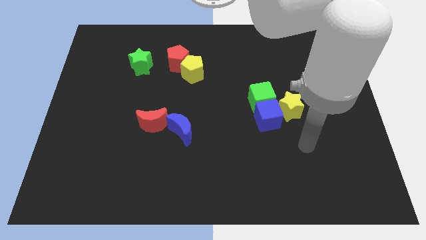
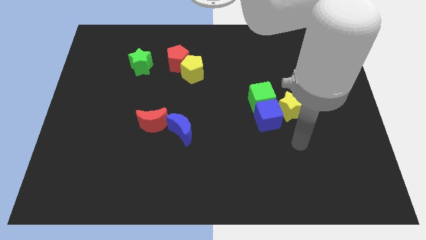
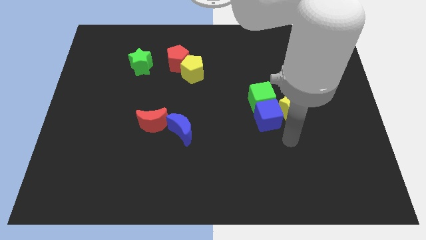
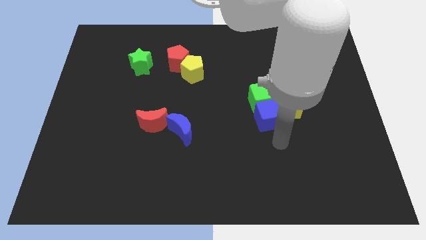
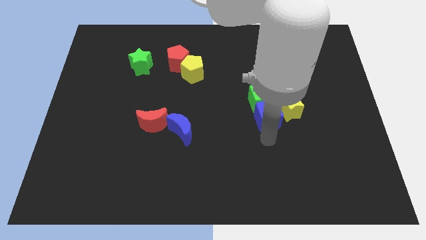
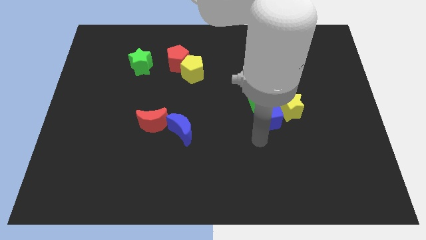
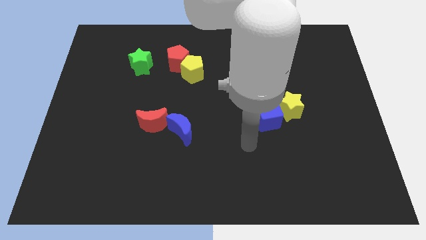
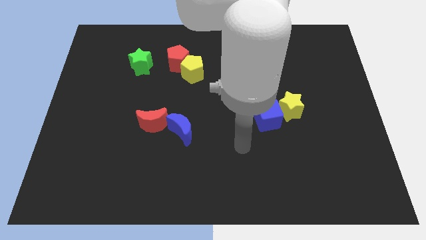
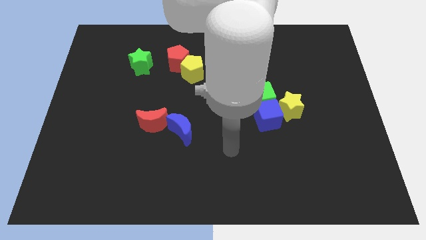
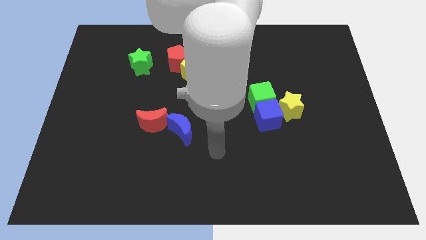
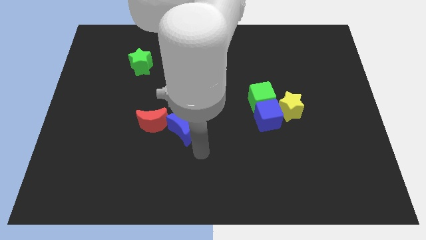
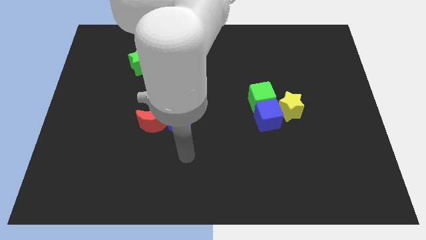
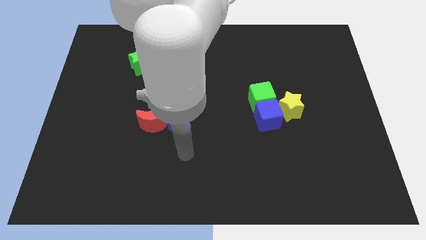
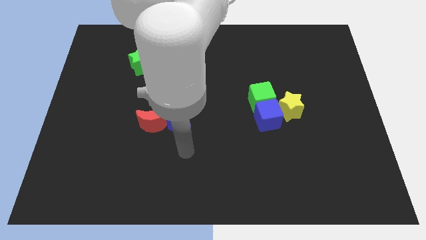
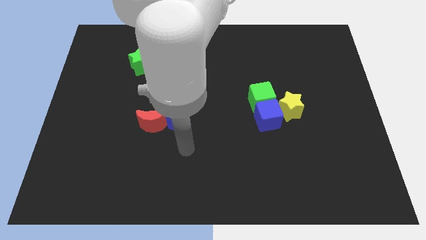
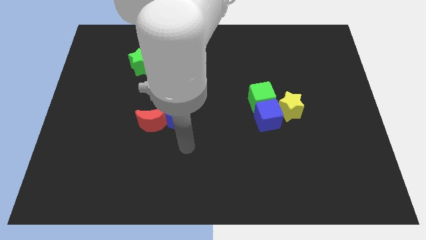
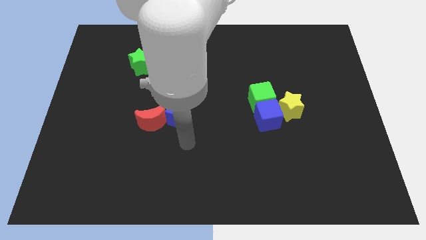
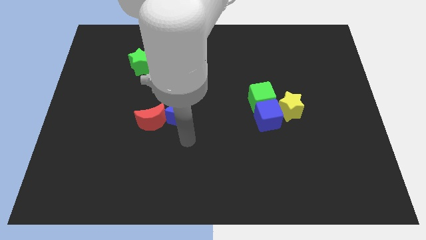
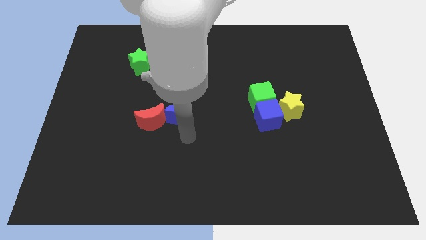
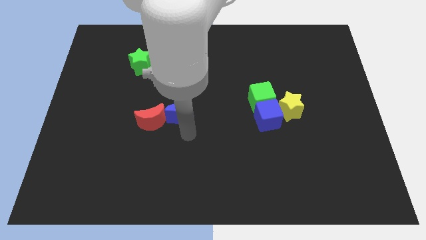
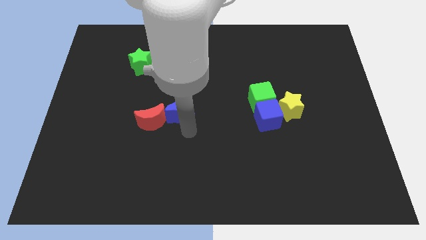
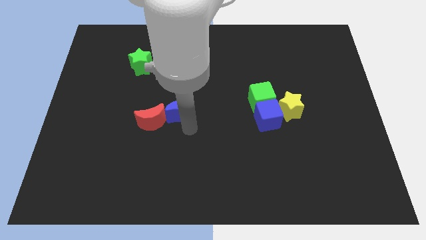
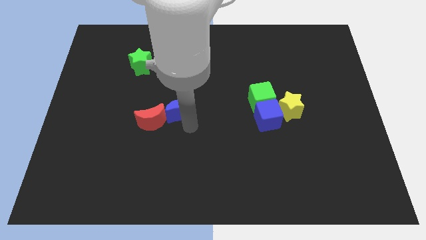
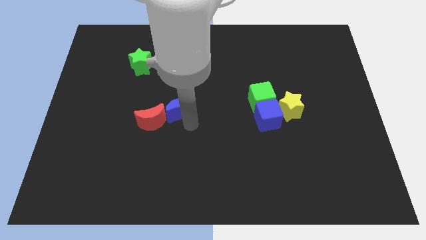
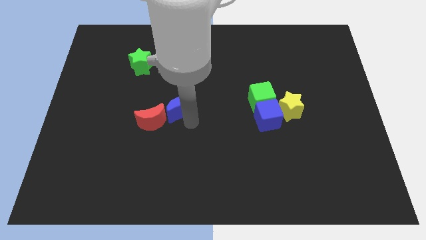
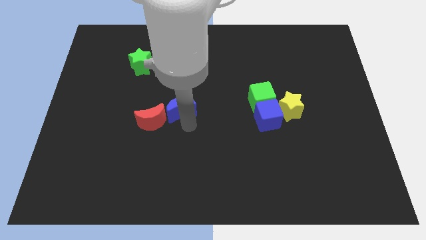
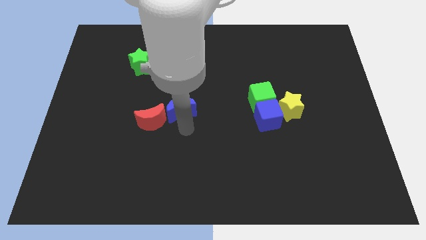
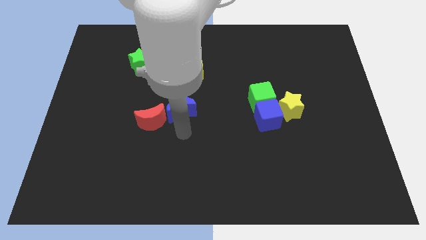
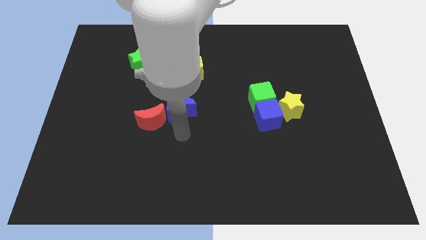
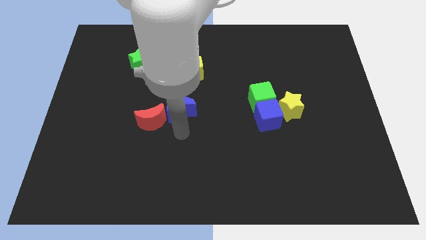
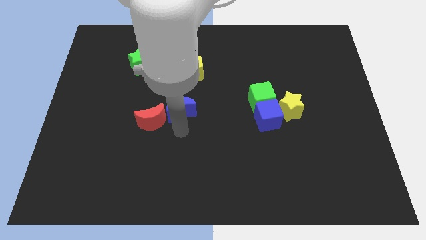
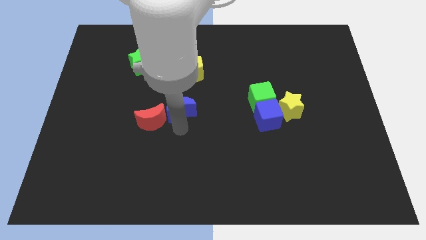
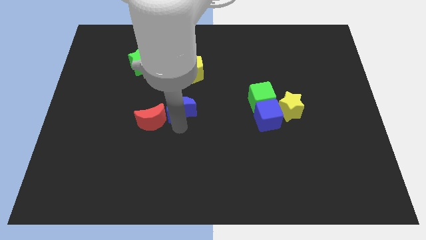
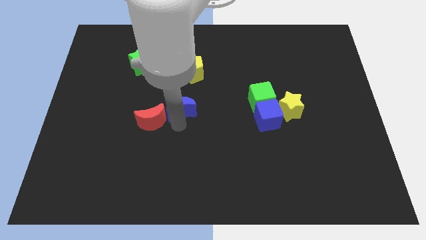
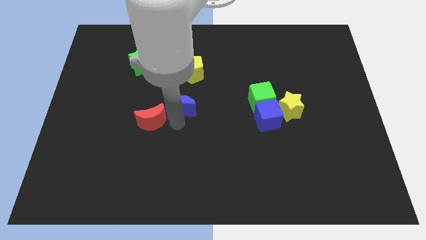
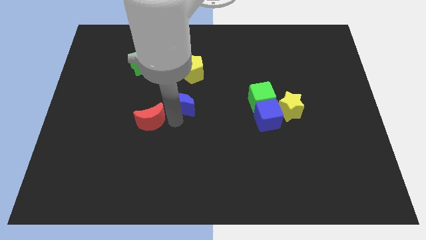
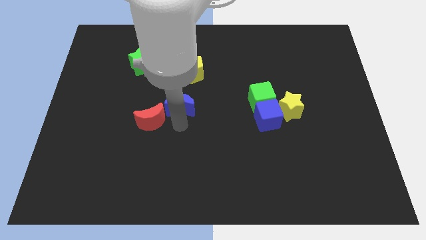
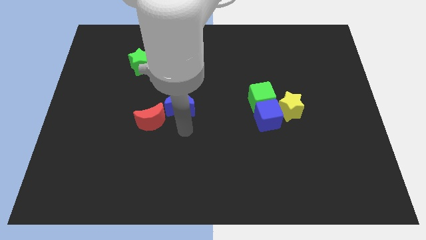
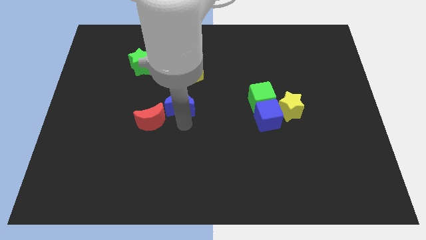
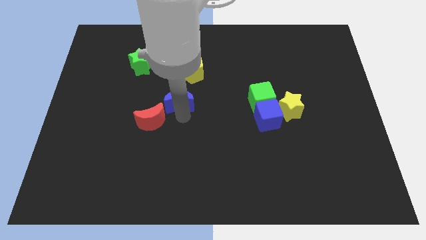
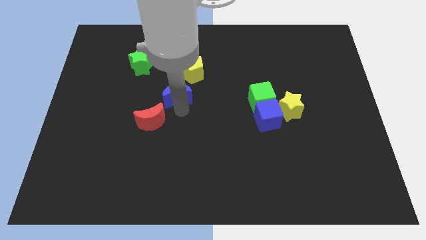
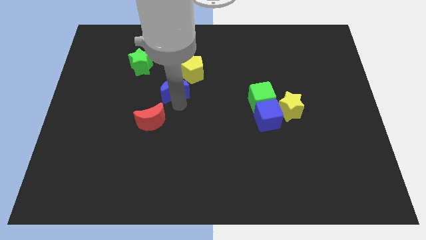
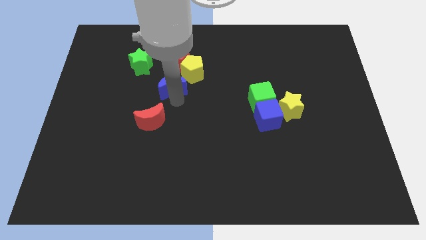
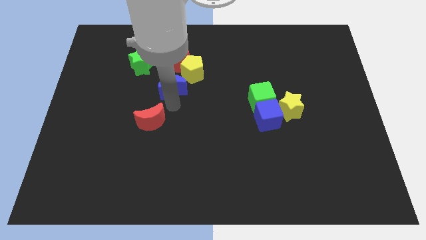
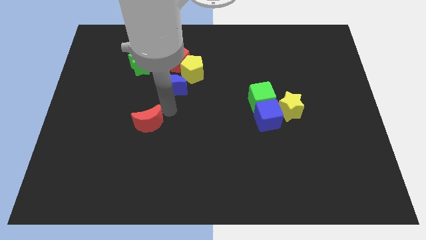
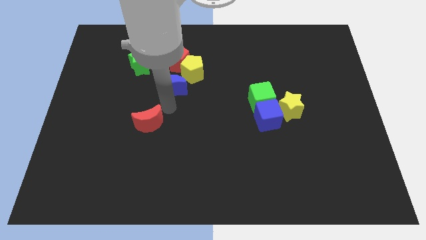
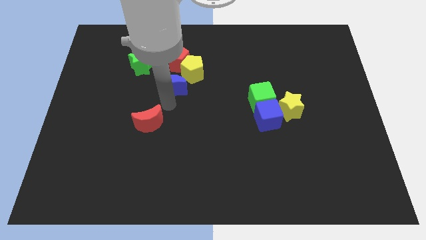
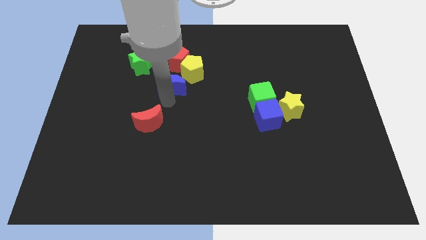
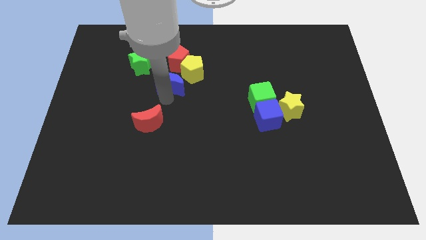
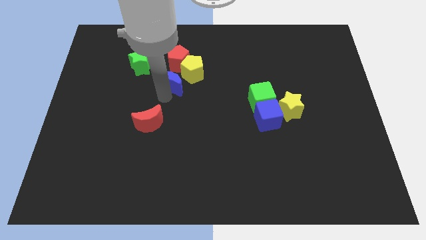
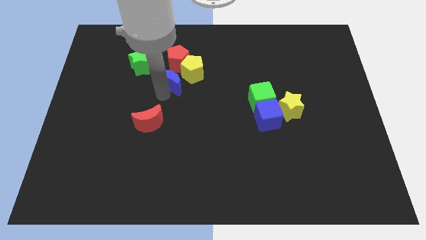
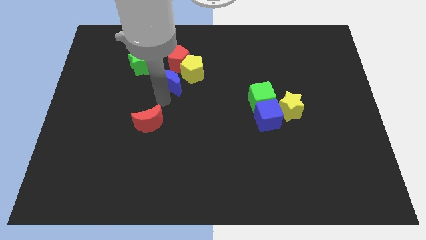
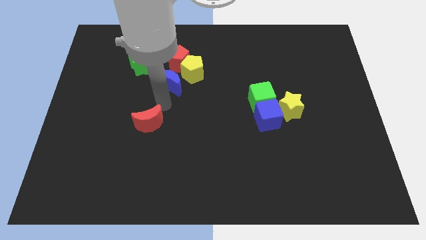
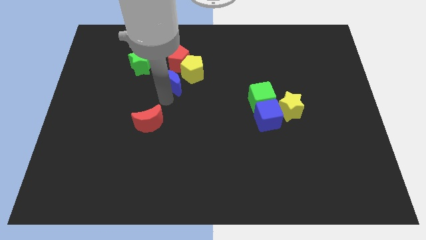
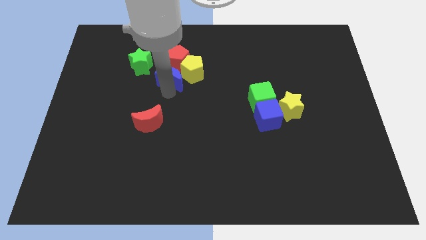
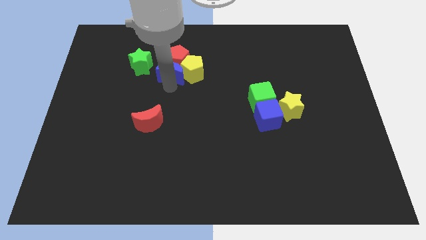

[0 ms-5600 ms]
push the blue moon to the red pentagon

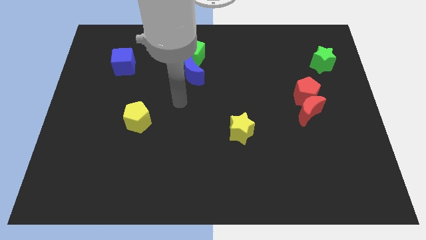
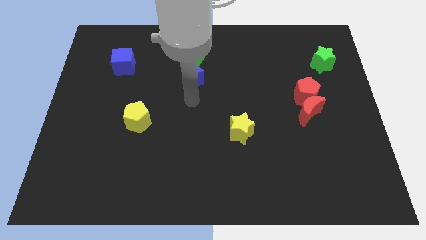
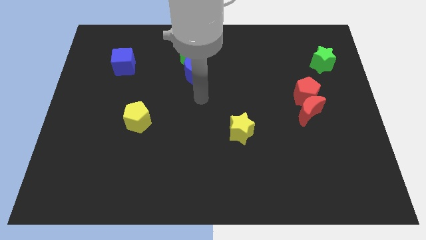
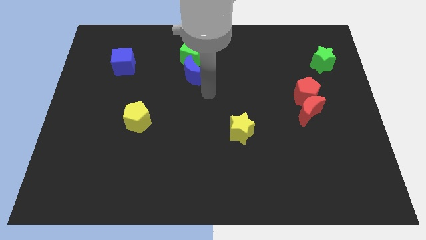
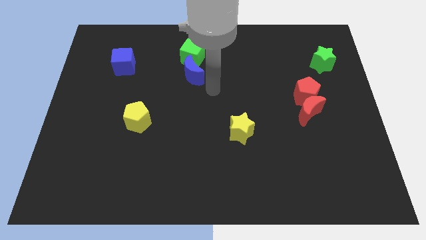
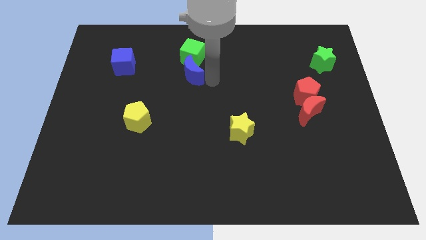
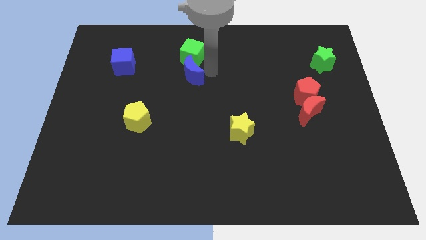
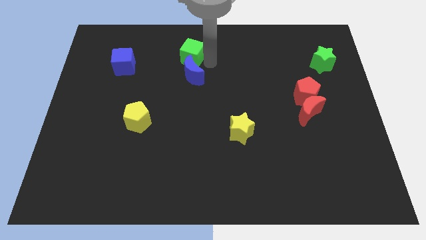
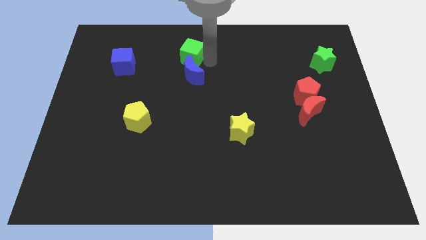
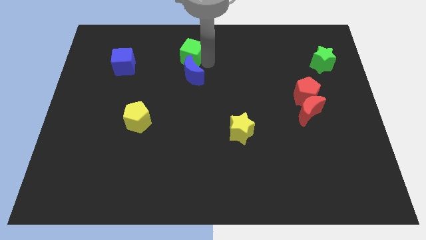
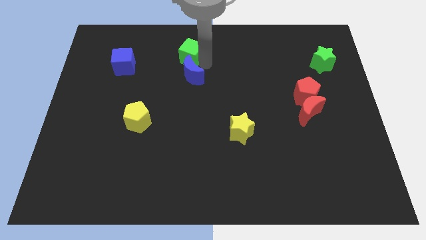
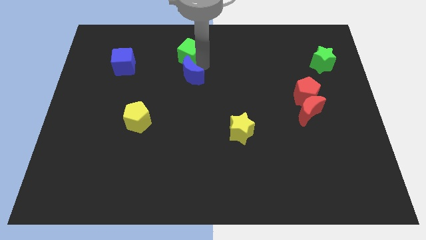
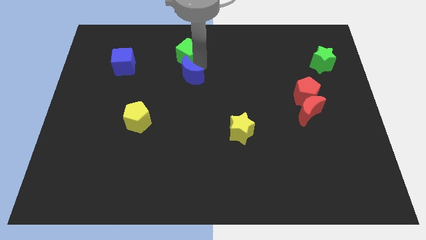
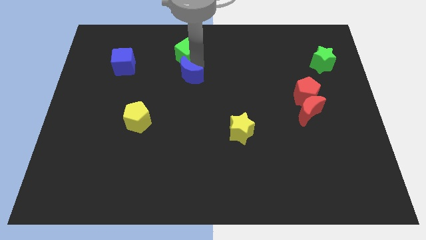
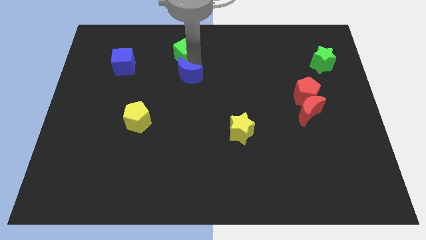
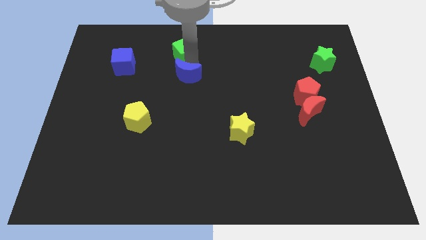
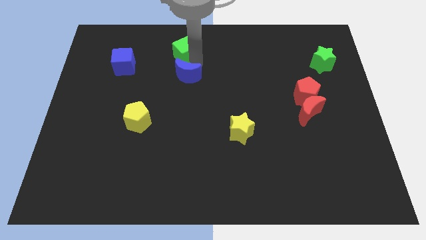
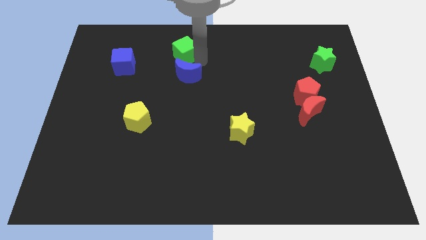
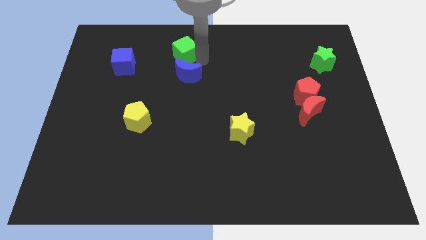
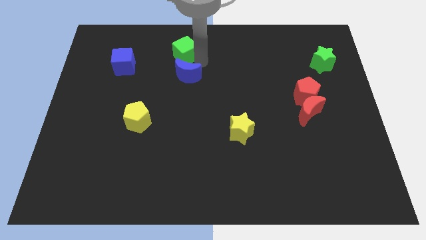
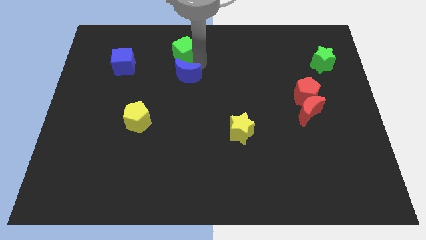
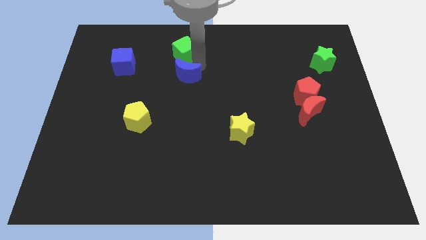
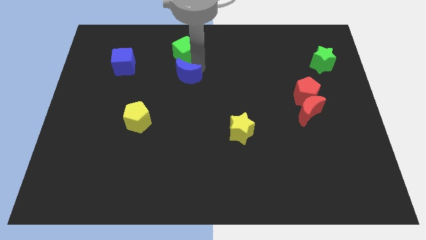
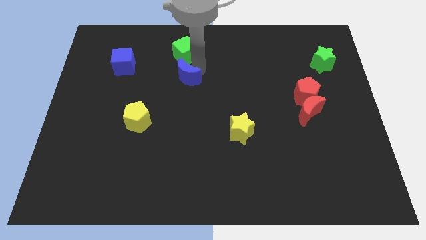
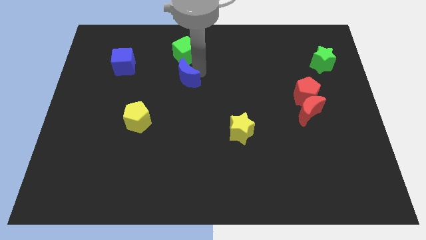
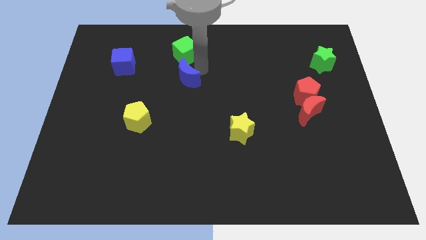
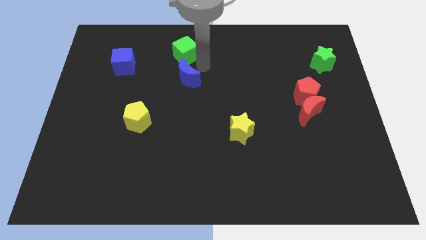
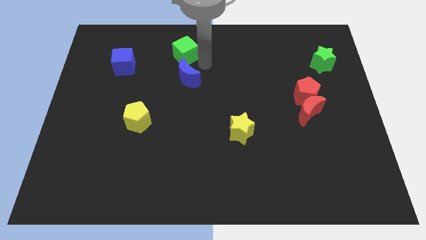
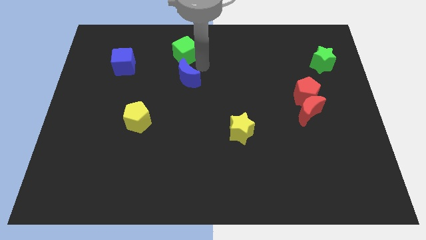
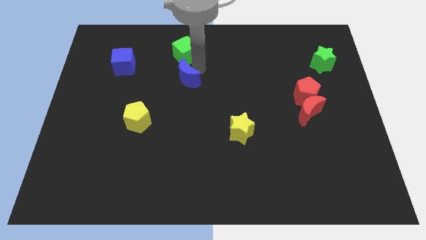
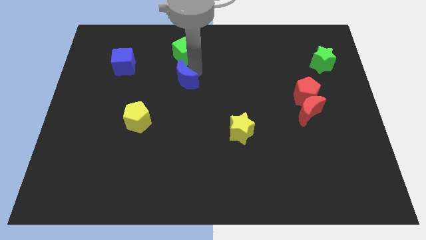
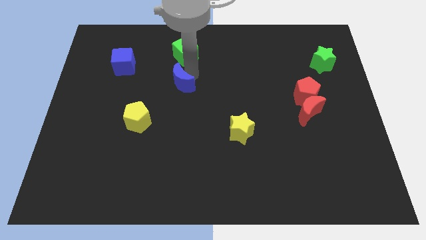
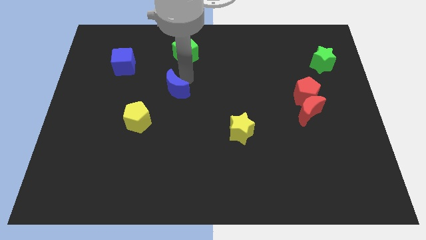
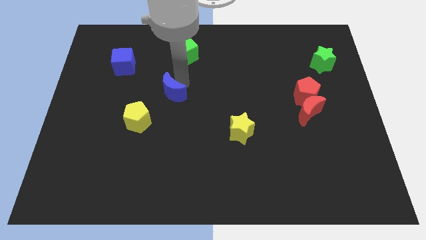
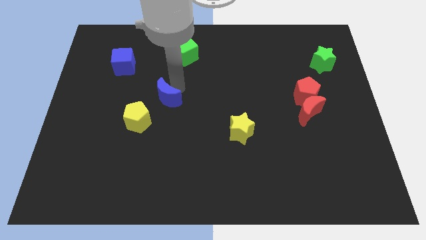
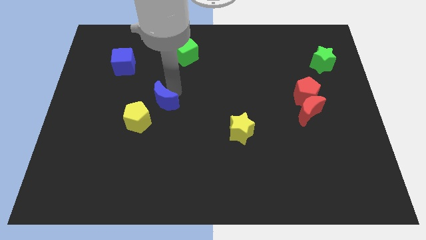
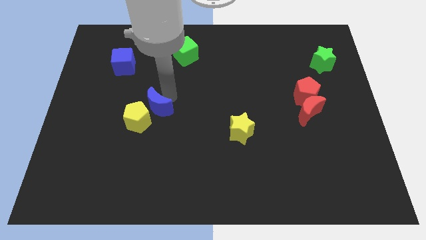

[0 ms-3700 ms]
slide the blue moon close to the yellow pentagon
